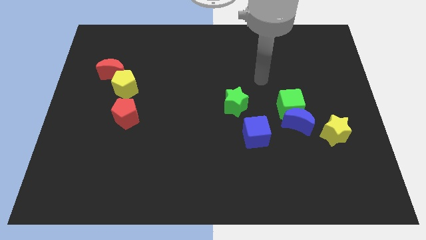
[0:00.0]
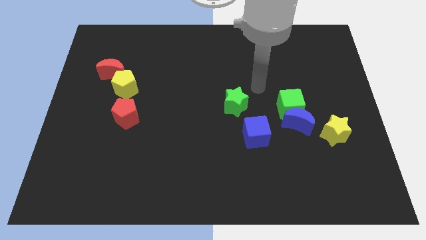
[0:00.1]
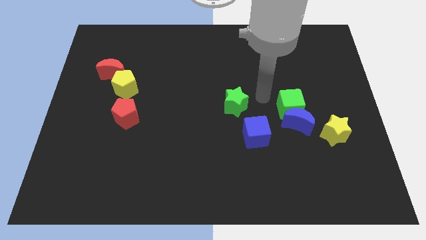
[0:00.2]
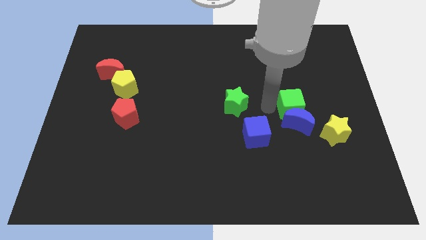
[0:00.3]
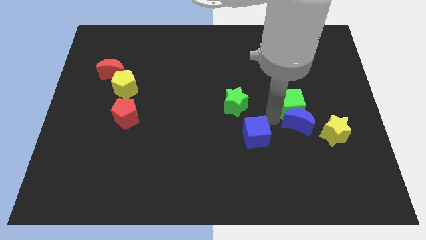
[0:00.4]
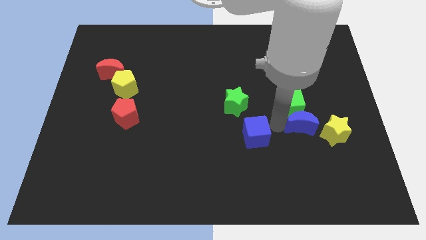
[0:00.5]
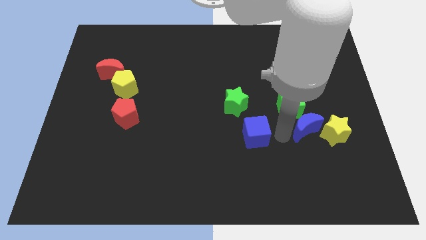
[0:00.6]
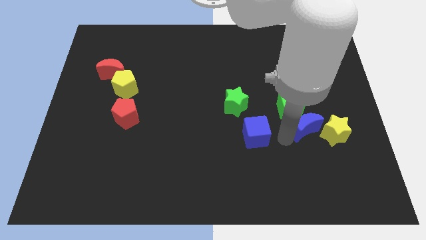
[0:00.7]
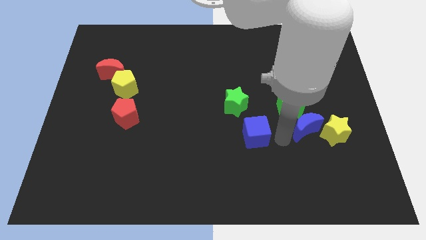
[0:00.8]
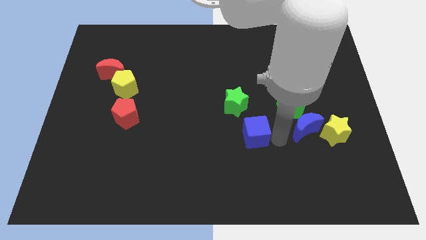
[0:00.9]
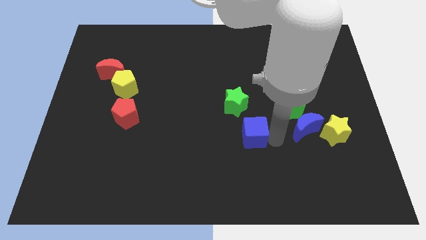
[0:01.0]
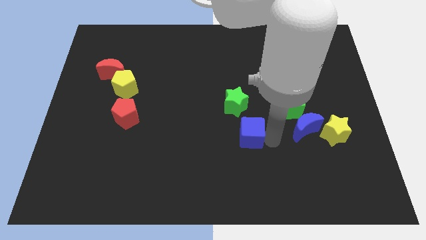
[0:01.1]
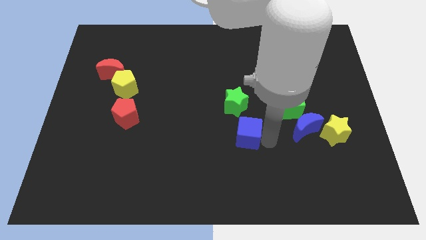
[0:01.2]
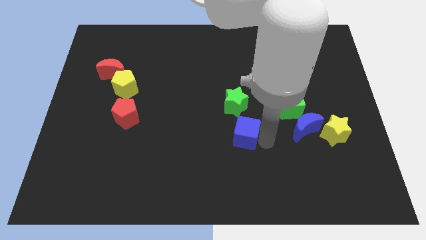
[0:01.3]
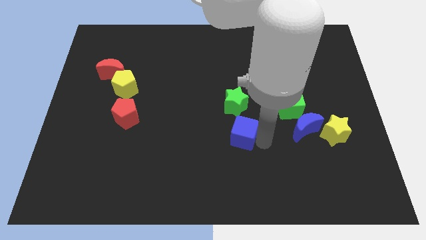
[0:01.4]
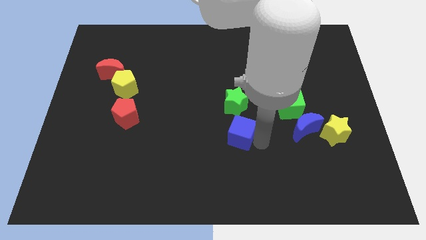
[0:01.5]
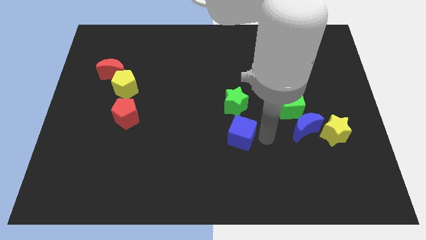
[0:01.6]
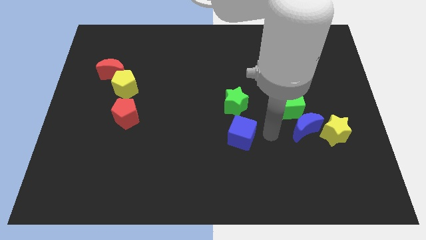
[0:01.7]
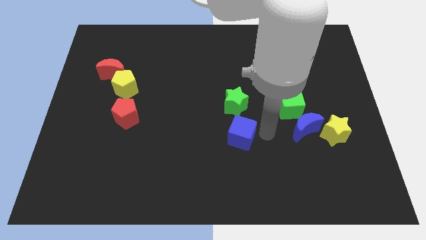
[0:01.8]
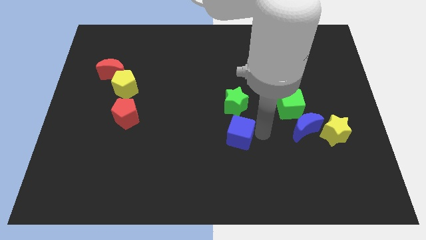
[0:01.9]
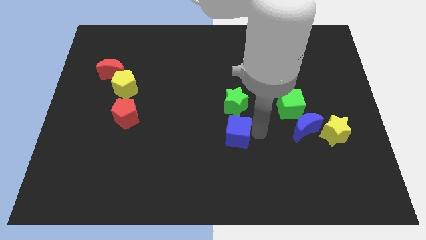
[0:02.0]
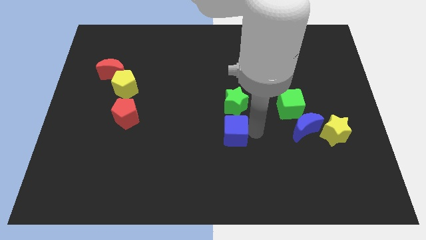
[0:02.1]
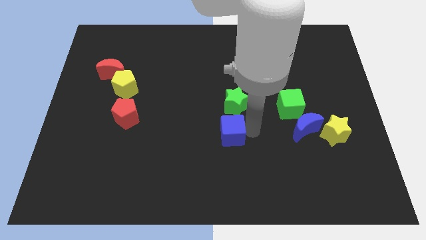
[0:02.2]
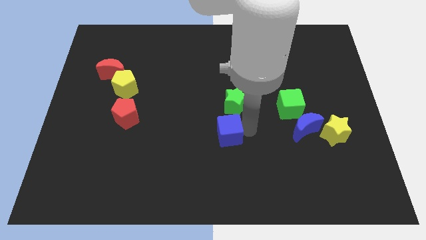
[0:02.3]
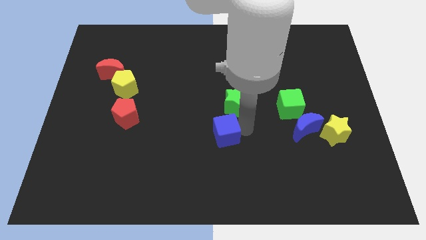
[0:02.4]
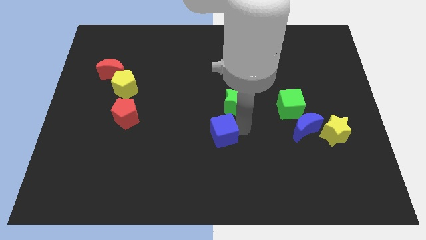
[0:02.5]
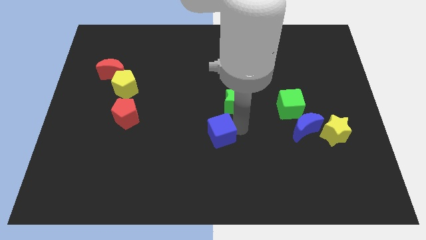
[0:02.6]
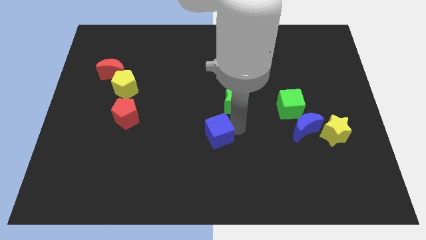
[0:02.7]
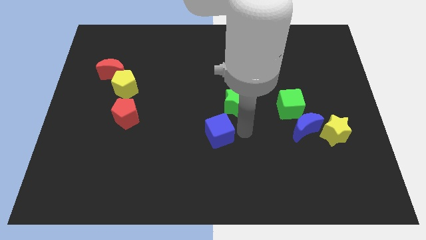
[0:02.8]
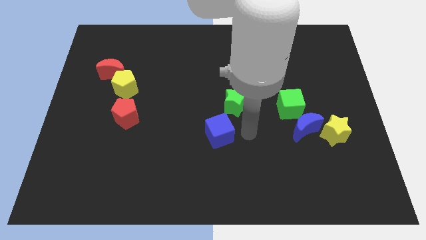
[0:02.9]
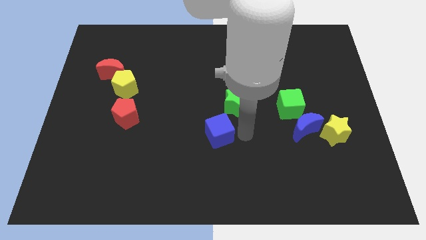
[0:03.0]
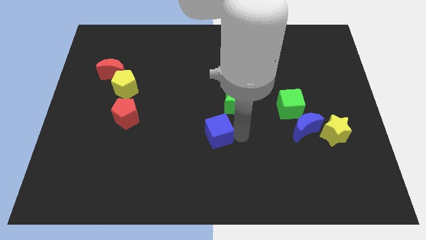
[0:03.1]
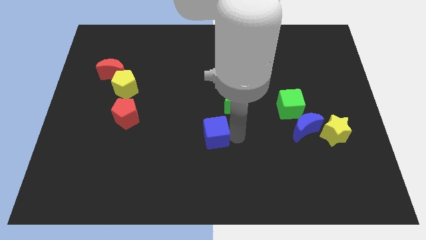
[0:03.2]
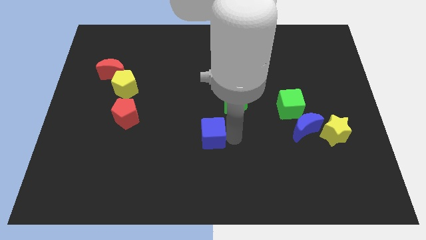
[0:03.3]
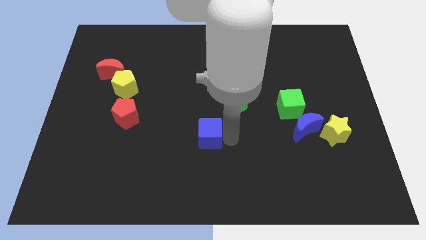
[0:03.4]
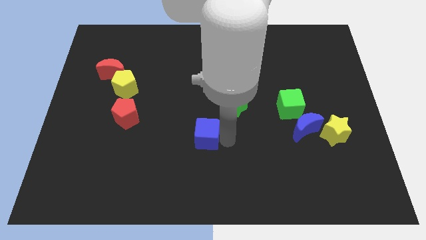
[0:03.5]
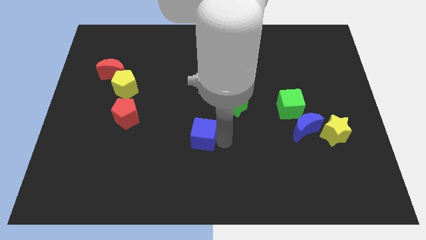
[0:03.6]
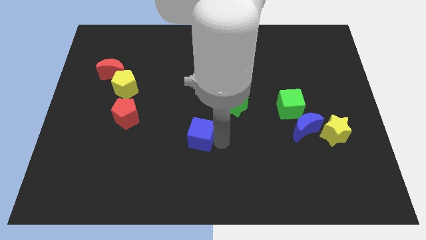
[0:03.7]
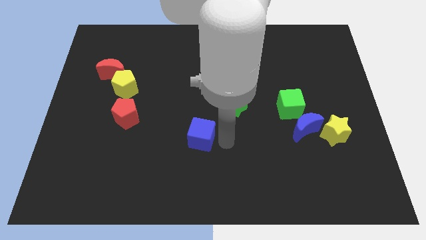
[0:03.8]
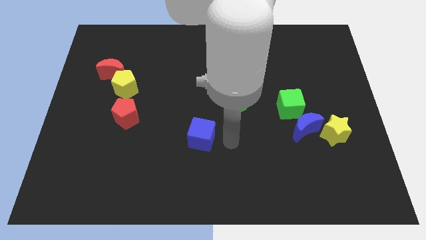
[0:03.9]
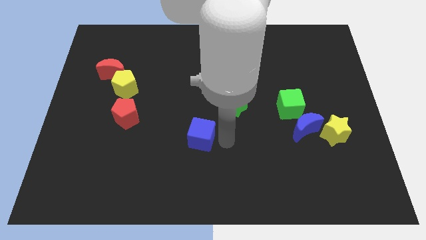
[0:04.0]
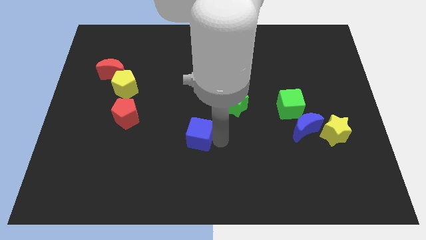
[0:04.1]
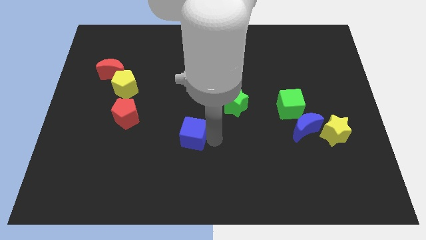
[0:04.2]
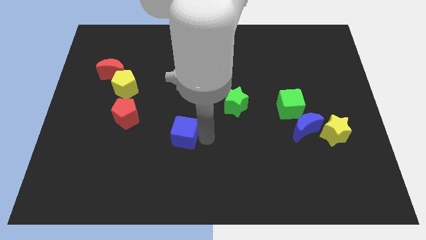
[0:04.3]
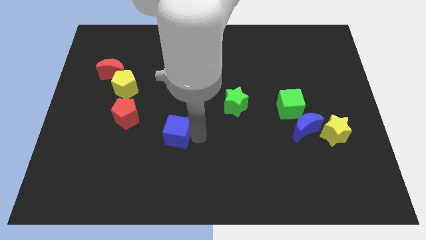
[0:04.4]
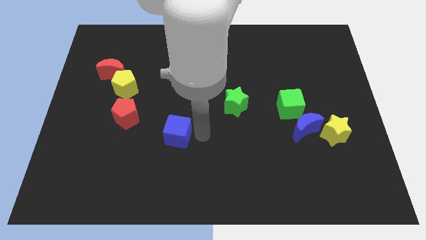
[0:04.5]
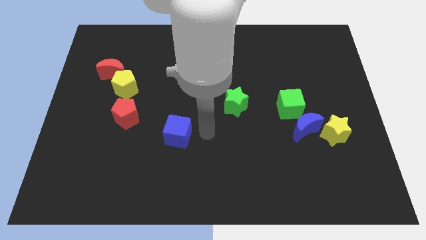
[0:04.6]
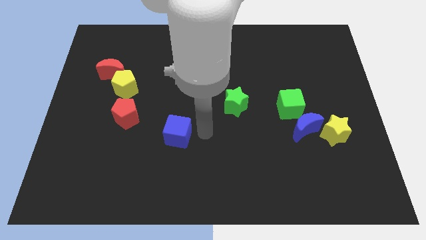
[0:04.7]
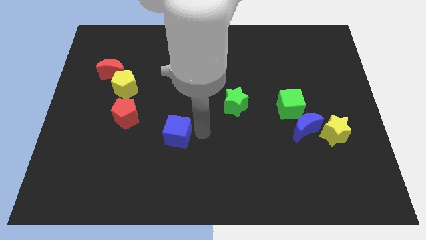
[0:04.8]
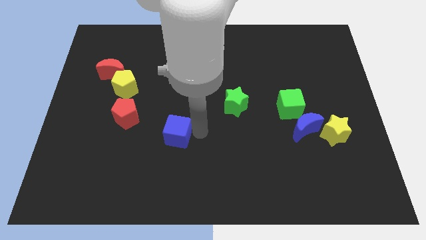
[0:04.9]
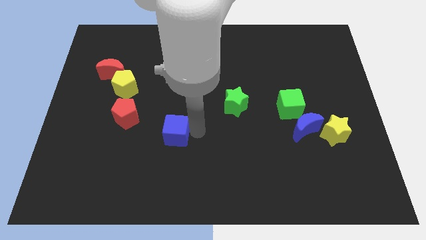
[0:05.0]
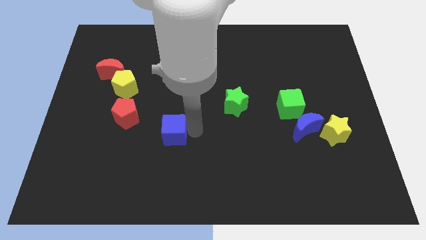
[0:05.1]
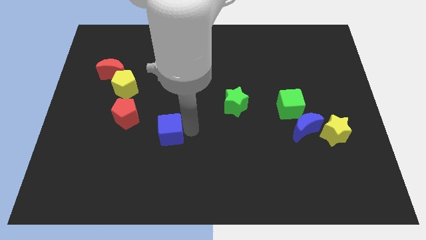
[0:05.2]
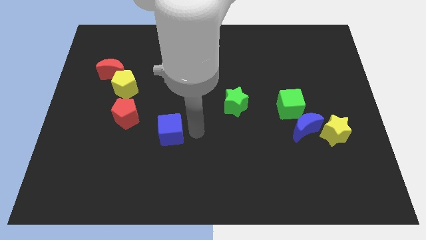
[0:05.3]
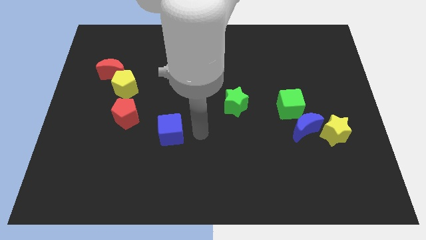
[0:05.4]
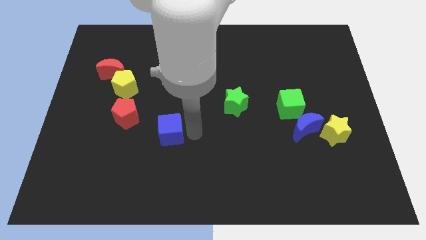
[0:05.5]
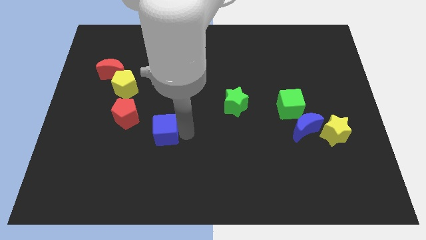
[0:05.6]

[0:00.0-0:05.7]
move the blue cube to the left

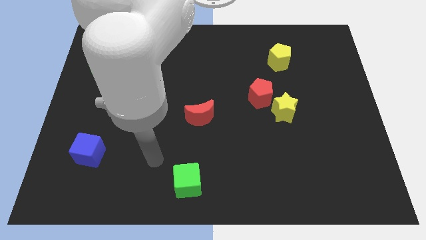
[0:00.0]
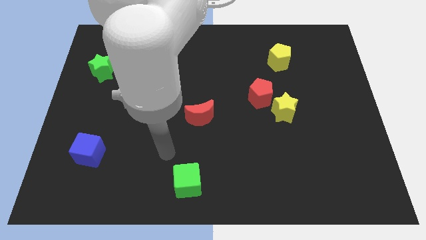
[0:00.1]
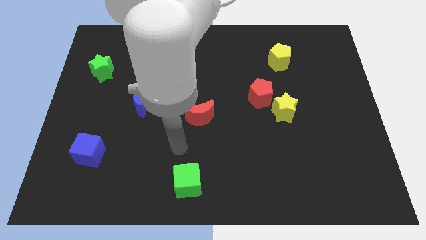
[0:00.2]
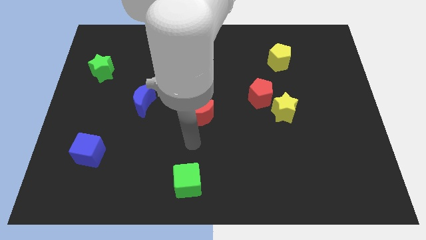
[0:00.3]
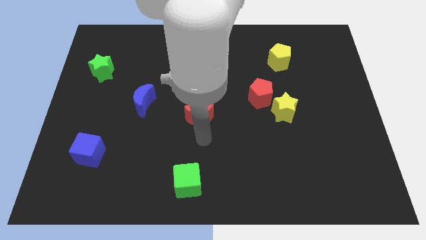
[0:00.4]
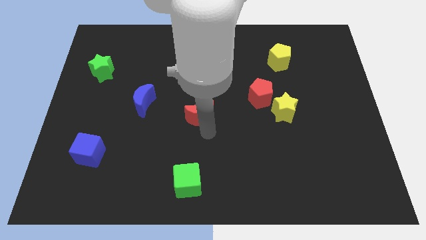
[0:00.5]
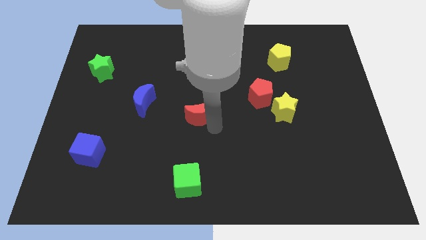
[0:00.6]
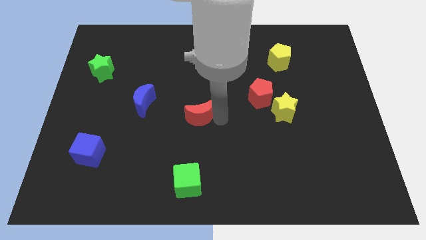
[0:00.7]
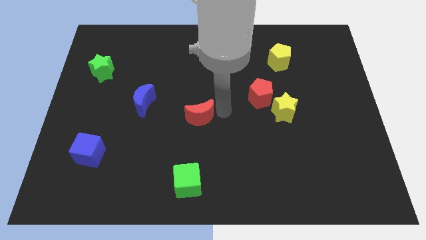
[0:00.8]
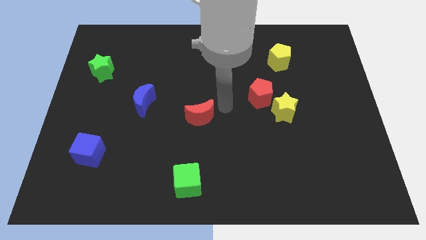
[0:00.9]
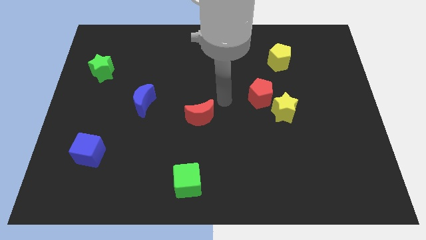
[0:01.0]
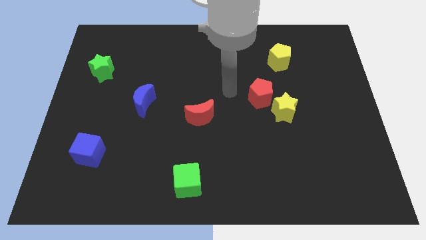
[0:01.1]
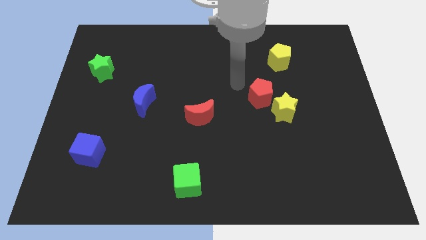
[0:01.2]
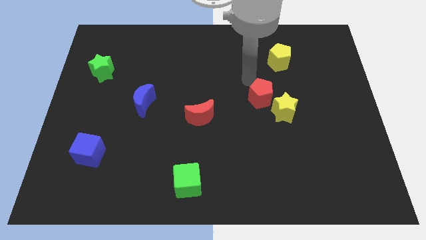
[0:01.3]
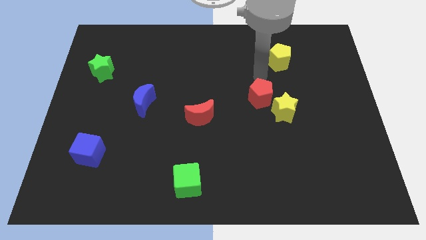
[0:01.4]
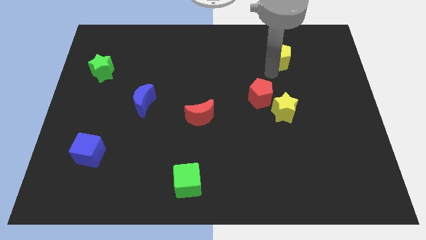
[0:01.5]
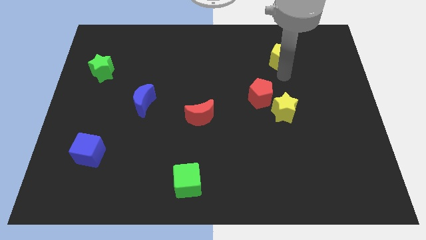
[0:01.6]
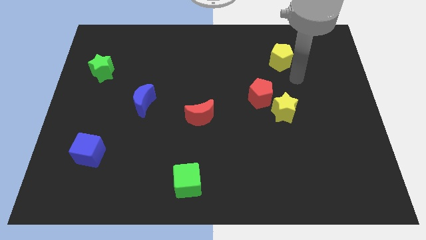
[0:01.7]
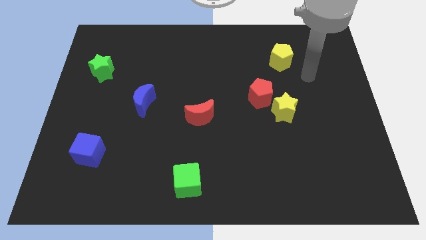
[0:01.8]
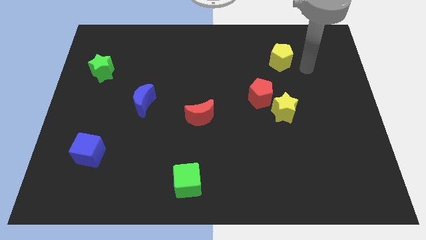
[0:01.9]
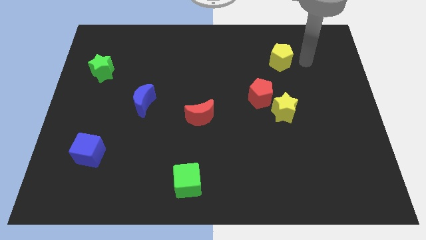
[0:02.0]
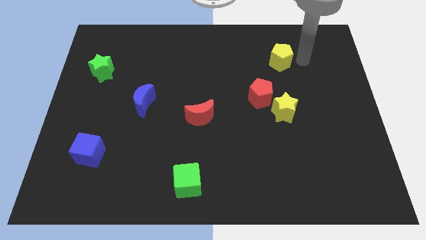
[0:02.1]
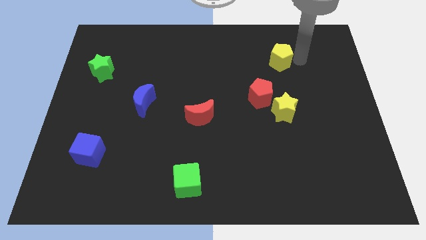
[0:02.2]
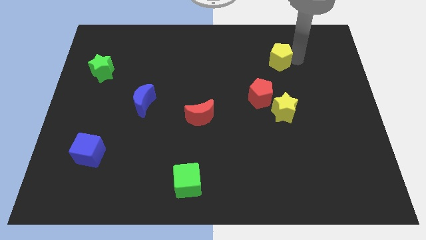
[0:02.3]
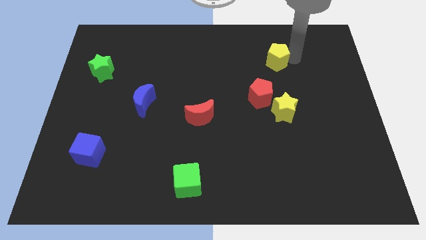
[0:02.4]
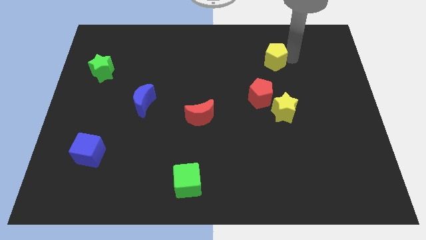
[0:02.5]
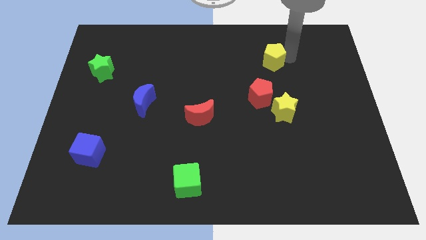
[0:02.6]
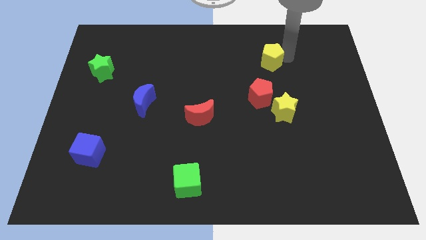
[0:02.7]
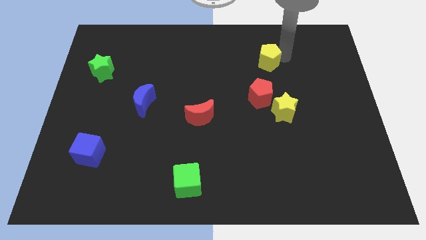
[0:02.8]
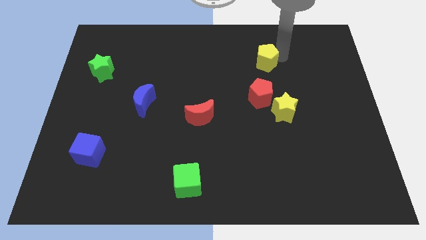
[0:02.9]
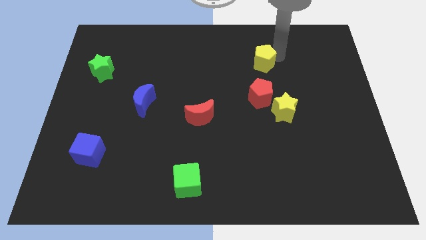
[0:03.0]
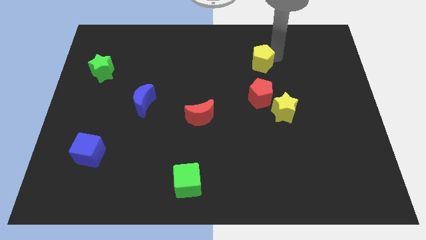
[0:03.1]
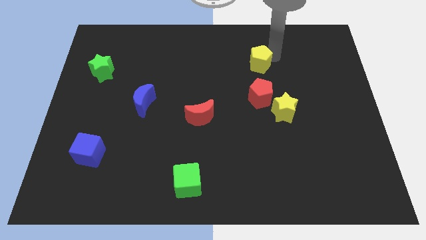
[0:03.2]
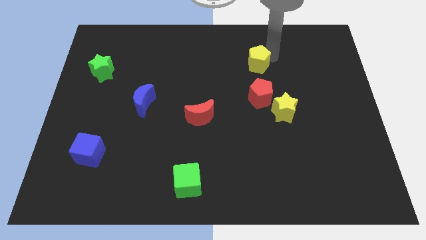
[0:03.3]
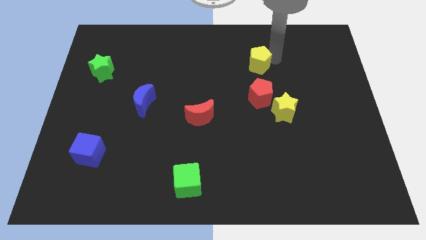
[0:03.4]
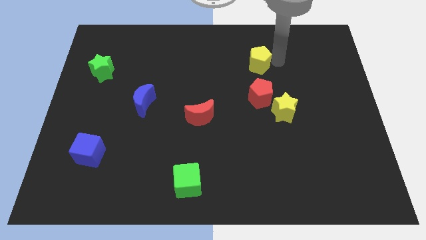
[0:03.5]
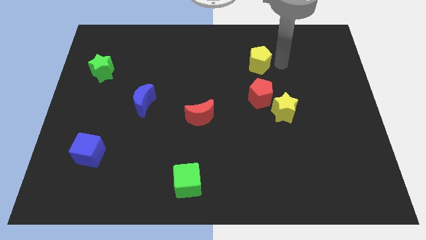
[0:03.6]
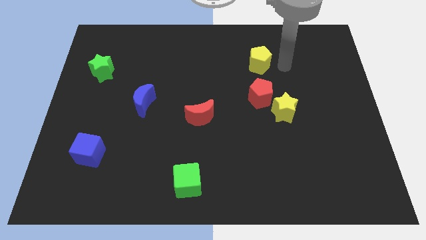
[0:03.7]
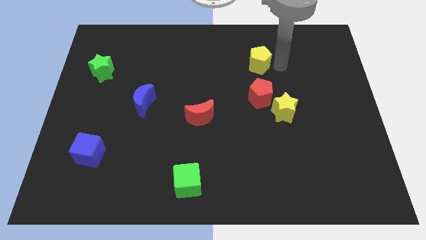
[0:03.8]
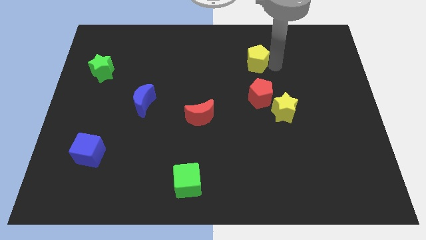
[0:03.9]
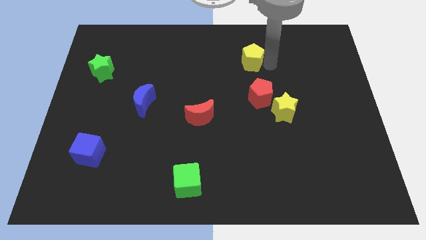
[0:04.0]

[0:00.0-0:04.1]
slide the yellow pentagon a bit to the left
